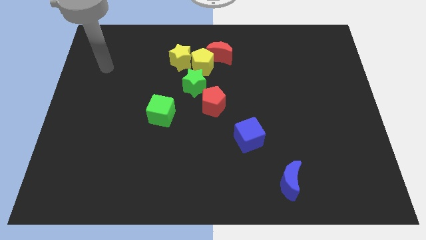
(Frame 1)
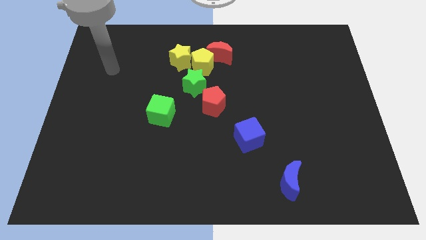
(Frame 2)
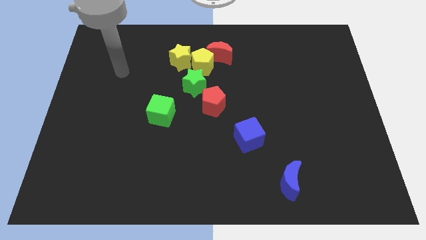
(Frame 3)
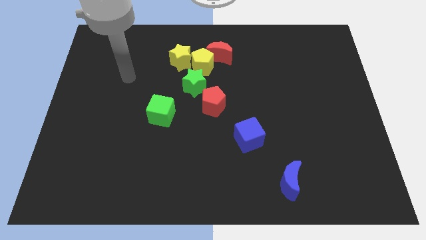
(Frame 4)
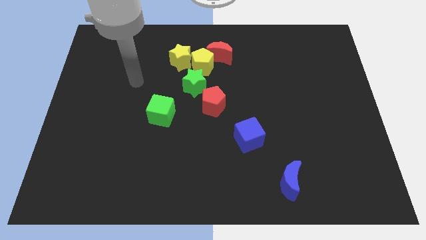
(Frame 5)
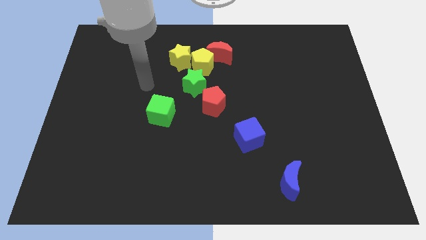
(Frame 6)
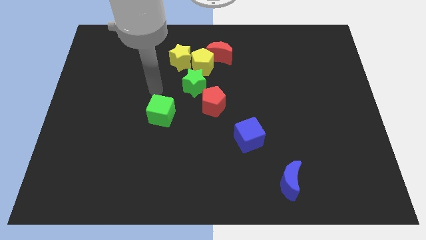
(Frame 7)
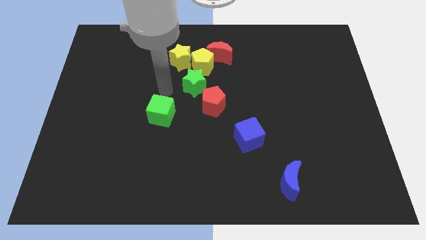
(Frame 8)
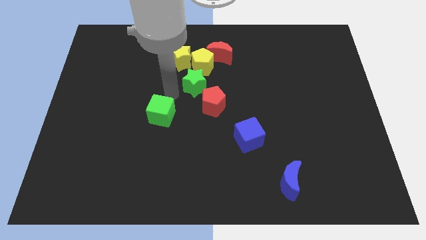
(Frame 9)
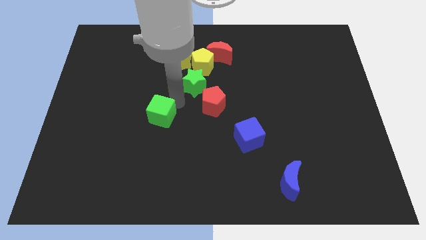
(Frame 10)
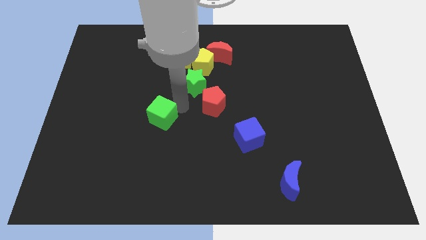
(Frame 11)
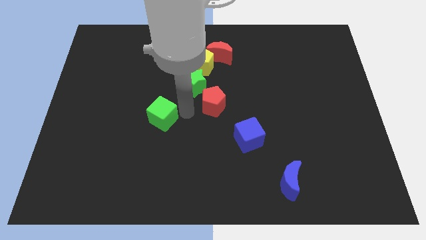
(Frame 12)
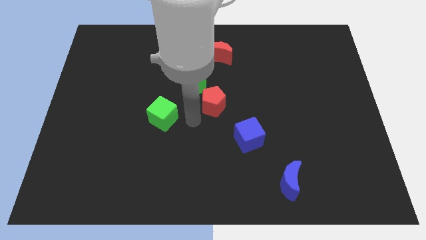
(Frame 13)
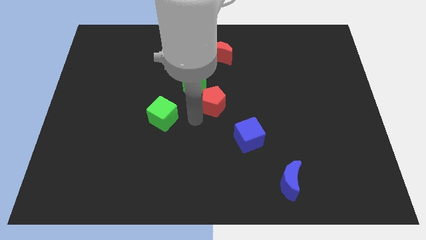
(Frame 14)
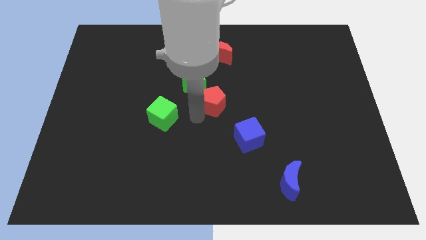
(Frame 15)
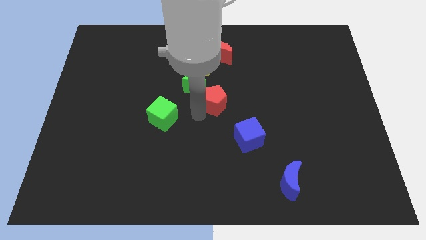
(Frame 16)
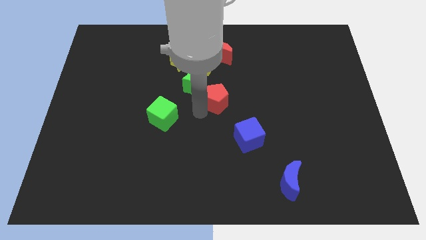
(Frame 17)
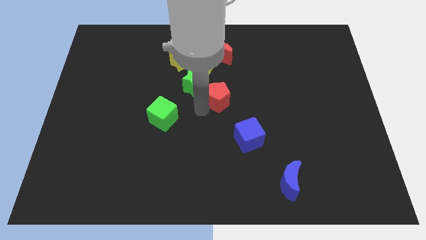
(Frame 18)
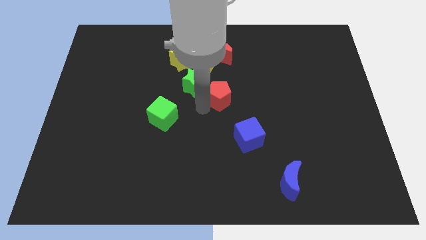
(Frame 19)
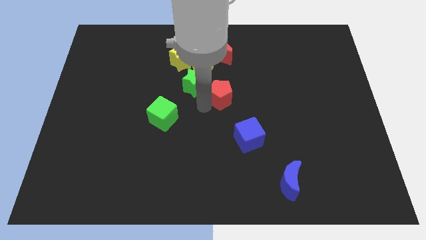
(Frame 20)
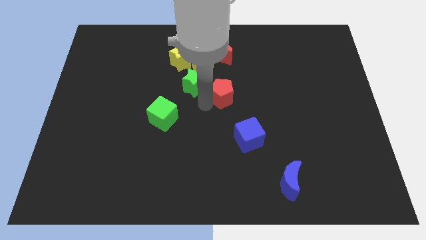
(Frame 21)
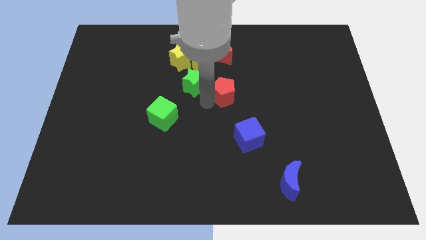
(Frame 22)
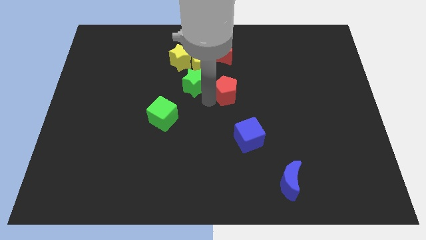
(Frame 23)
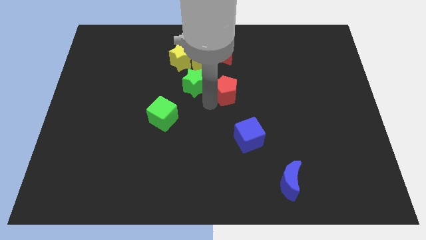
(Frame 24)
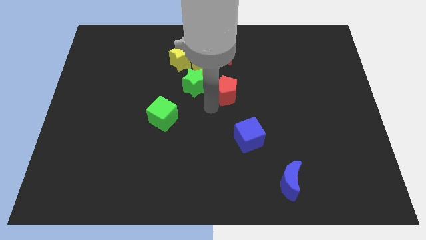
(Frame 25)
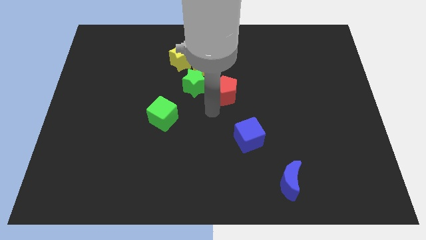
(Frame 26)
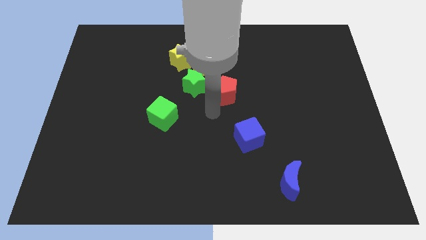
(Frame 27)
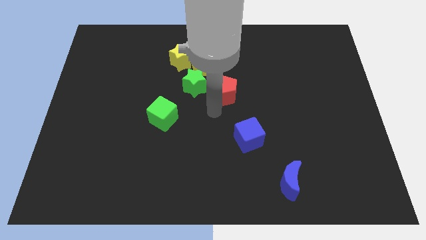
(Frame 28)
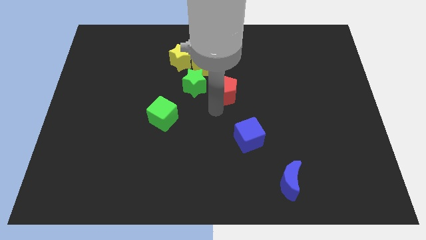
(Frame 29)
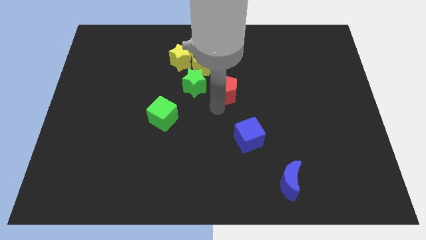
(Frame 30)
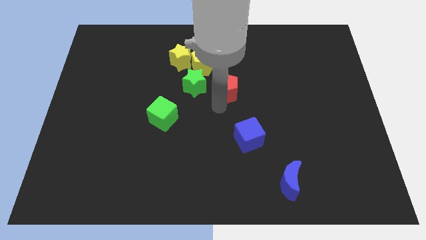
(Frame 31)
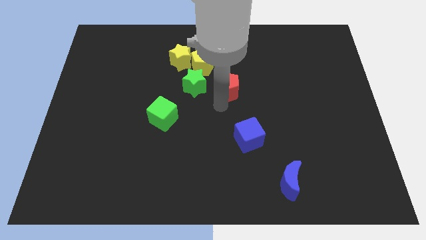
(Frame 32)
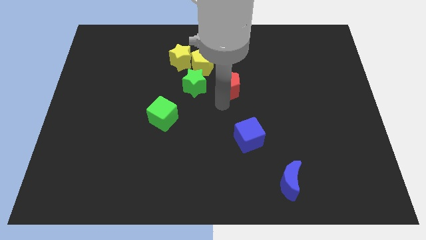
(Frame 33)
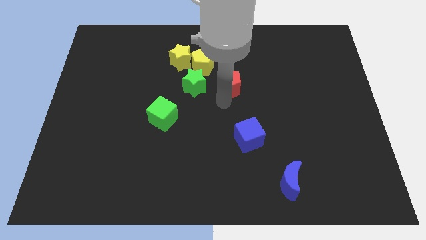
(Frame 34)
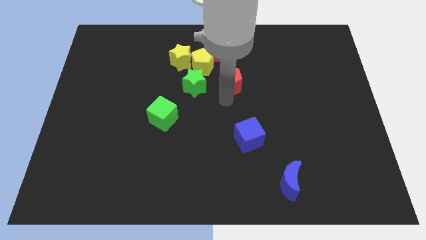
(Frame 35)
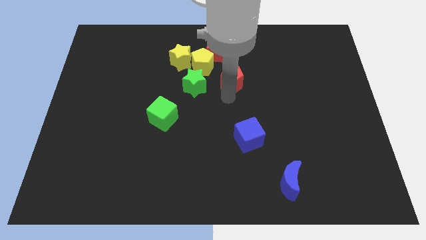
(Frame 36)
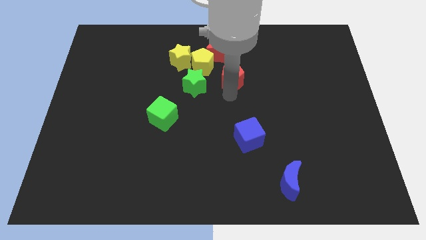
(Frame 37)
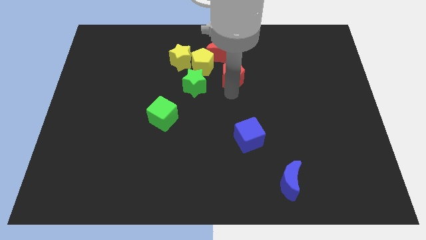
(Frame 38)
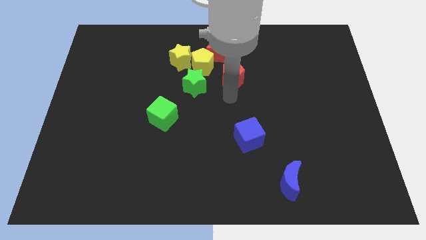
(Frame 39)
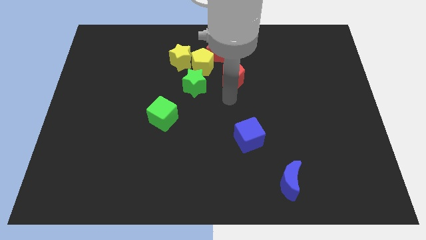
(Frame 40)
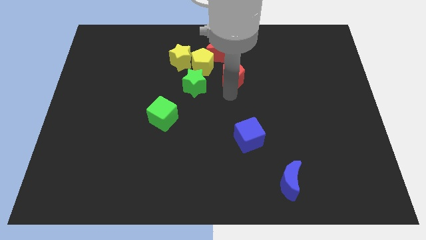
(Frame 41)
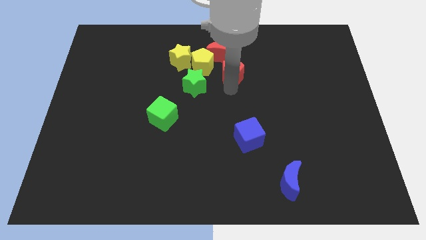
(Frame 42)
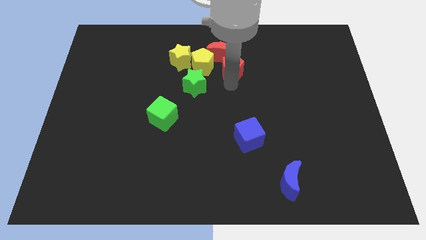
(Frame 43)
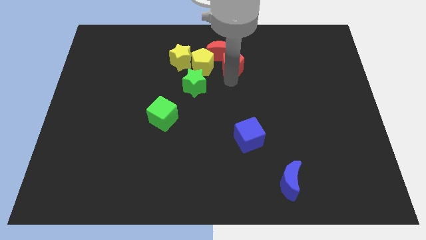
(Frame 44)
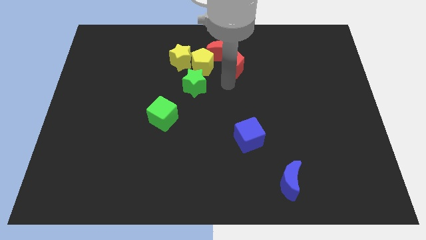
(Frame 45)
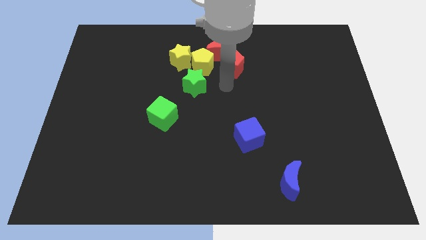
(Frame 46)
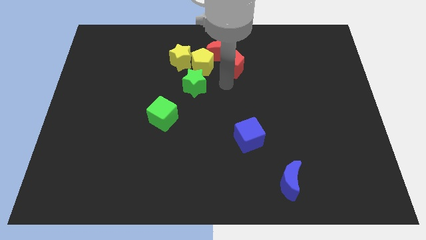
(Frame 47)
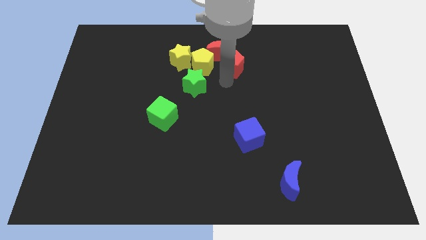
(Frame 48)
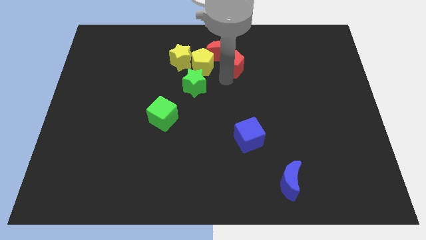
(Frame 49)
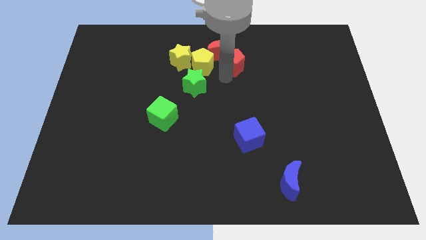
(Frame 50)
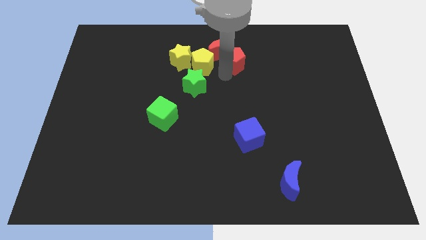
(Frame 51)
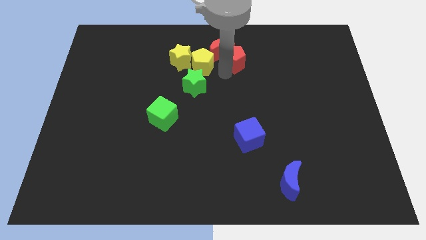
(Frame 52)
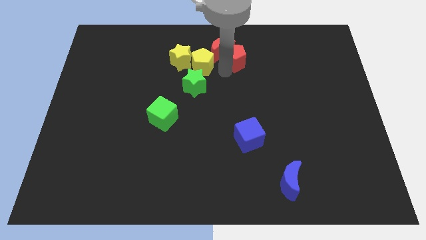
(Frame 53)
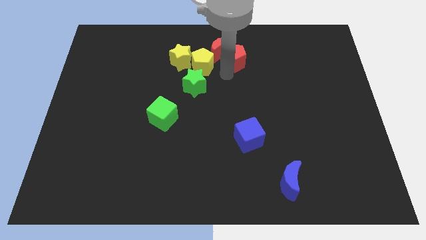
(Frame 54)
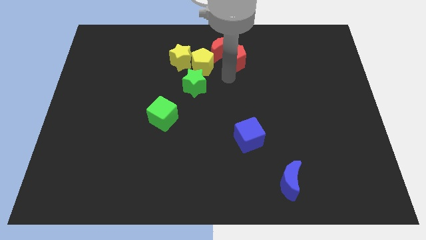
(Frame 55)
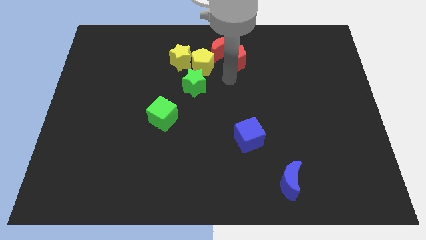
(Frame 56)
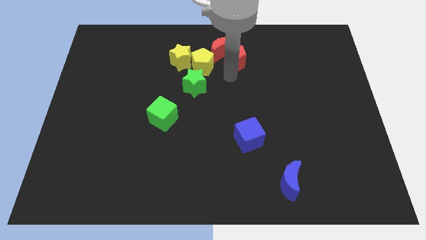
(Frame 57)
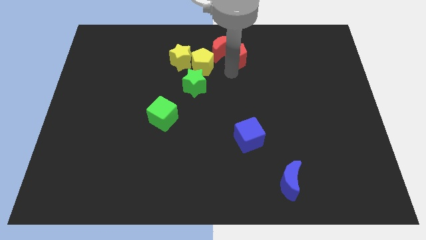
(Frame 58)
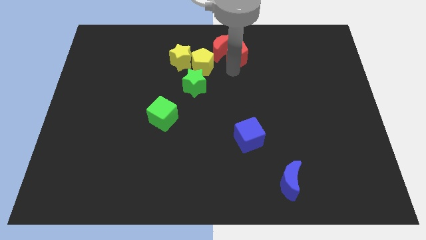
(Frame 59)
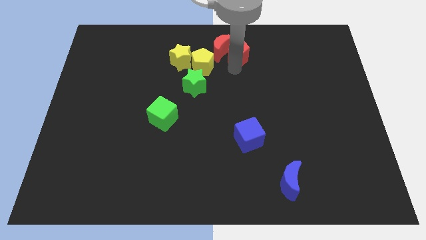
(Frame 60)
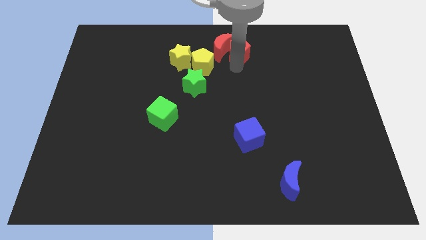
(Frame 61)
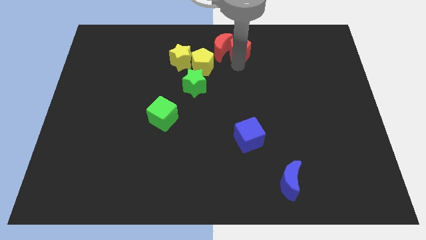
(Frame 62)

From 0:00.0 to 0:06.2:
push the red pentagon to the towards your base
